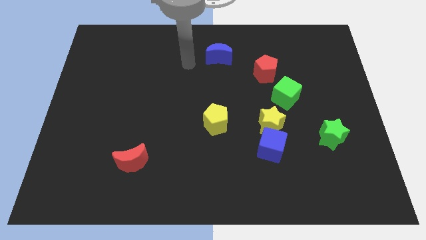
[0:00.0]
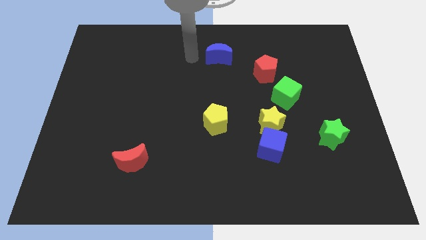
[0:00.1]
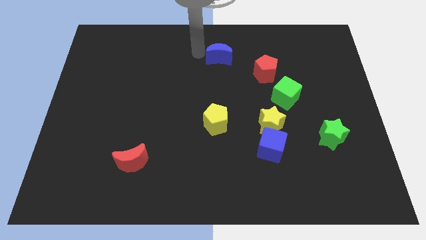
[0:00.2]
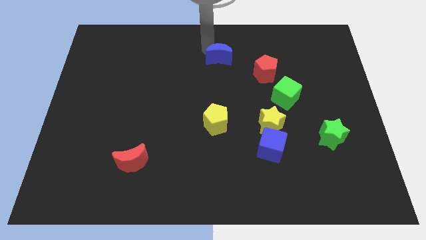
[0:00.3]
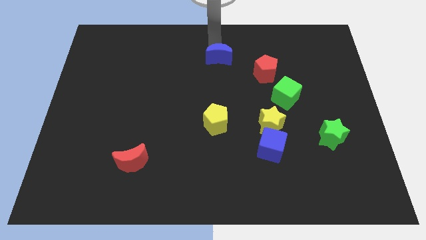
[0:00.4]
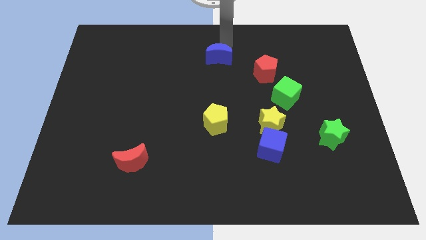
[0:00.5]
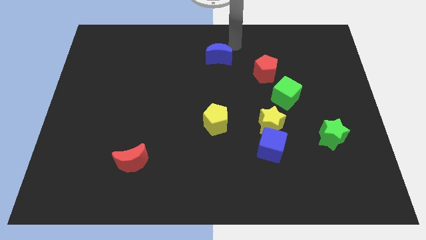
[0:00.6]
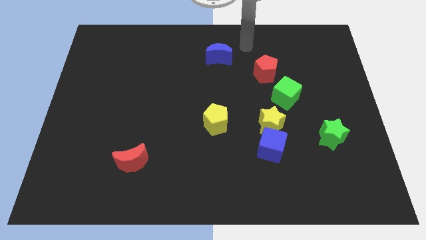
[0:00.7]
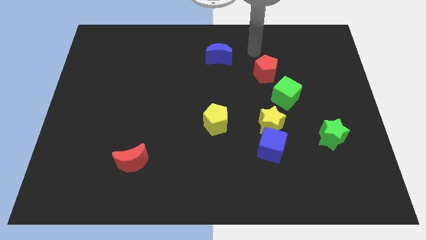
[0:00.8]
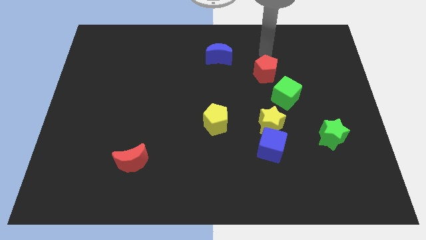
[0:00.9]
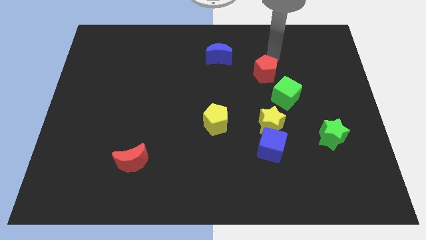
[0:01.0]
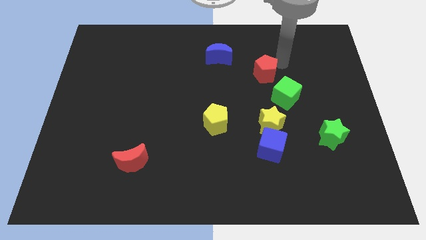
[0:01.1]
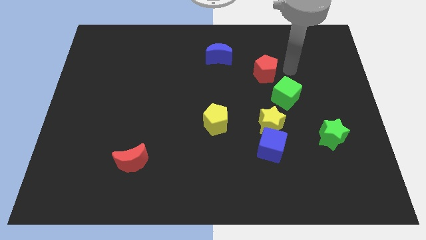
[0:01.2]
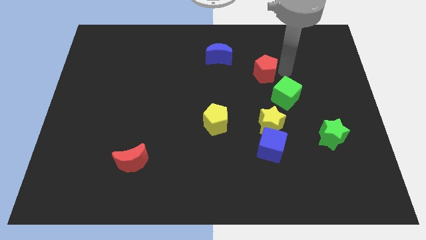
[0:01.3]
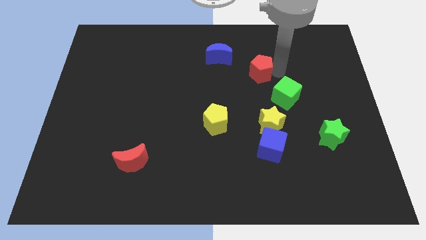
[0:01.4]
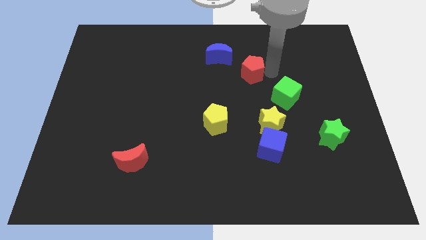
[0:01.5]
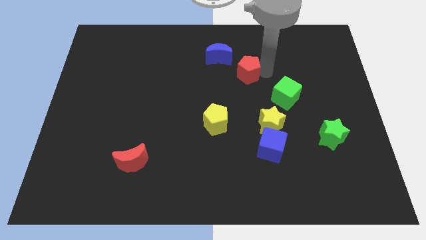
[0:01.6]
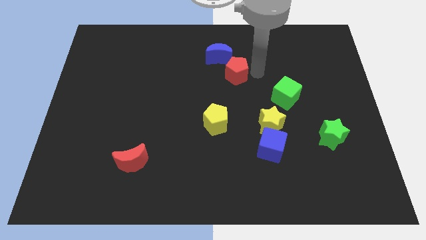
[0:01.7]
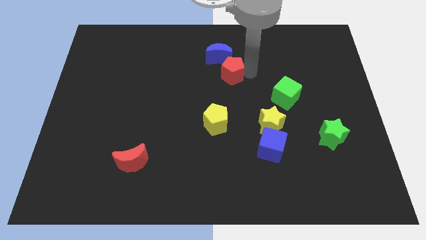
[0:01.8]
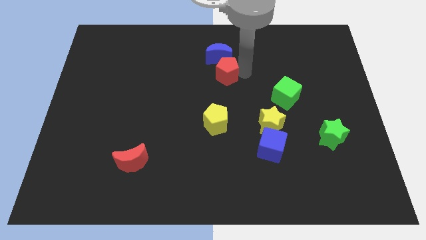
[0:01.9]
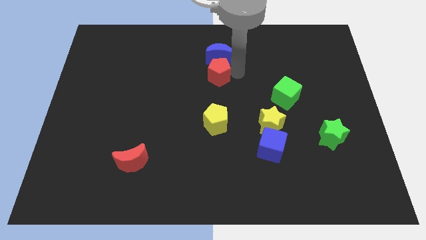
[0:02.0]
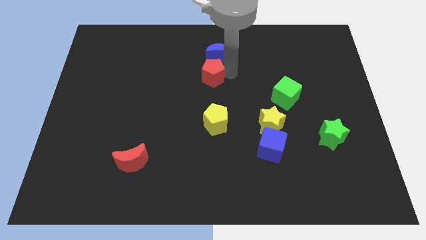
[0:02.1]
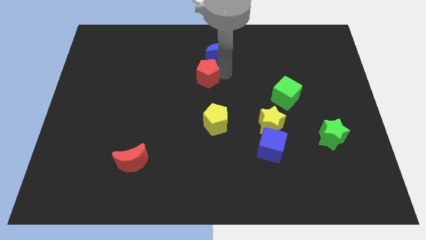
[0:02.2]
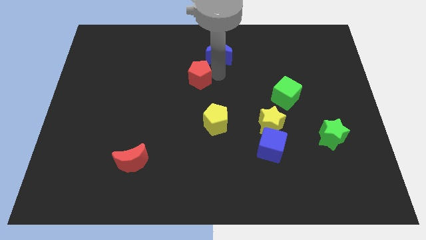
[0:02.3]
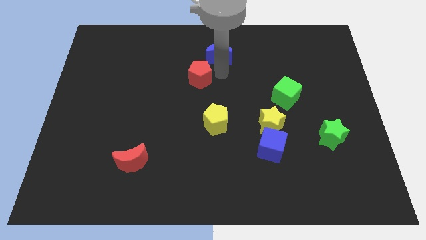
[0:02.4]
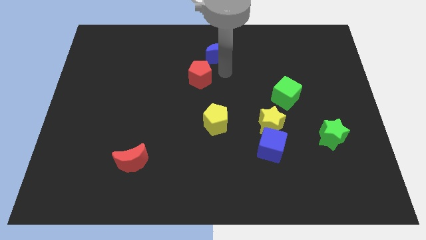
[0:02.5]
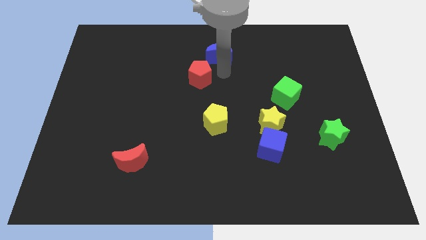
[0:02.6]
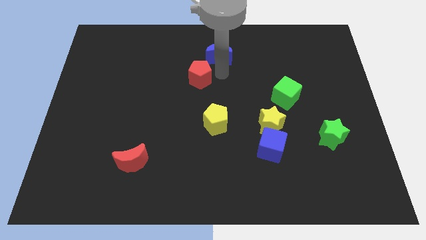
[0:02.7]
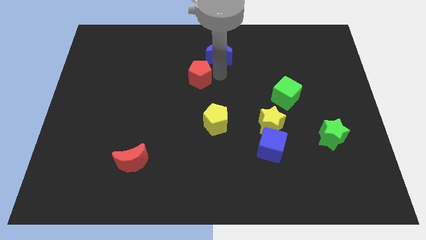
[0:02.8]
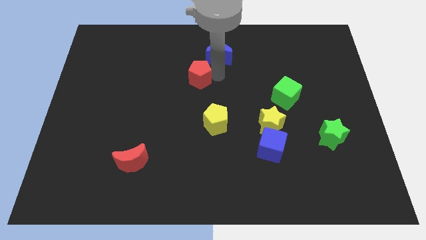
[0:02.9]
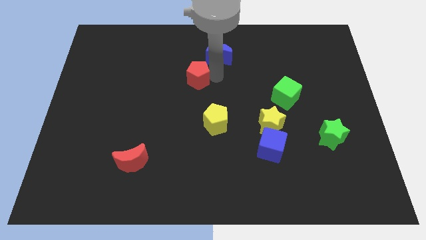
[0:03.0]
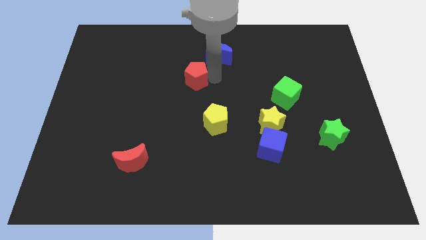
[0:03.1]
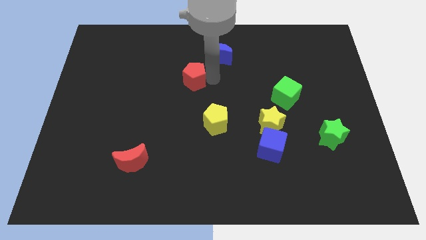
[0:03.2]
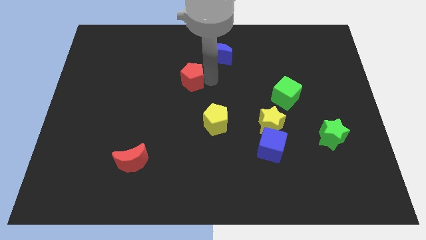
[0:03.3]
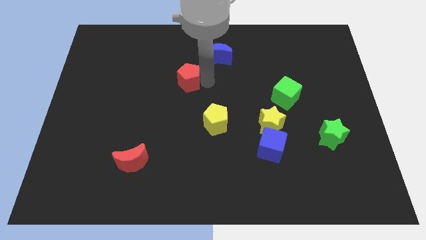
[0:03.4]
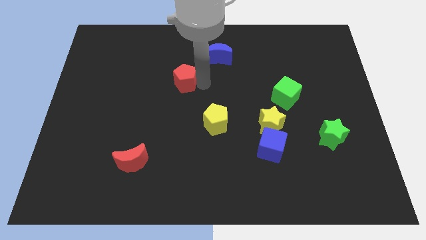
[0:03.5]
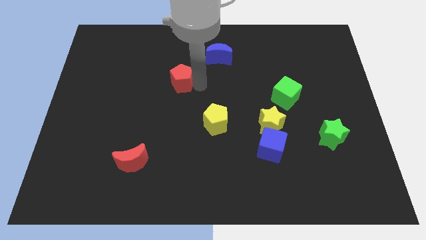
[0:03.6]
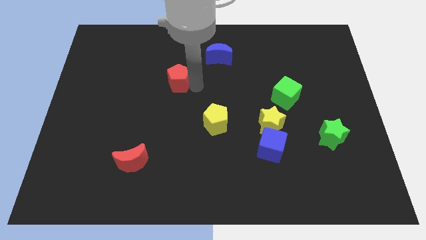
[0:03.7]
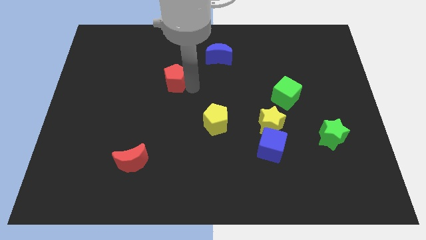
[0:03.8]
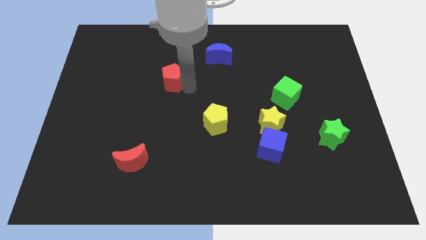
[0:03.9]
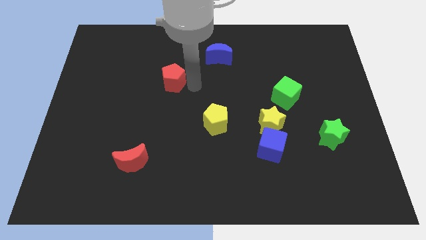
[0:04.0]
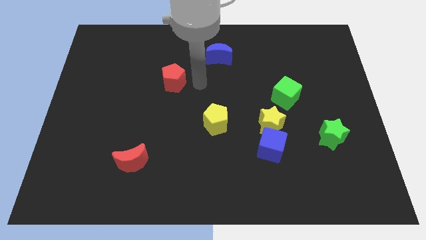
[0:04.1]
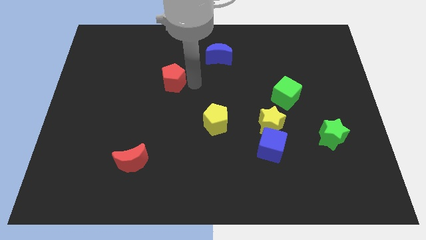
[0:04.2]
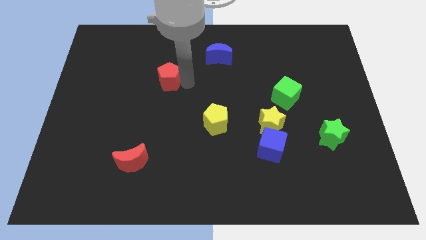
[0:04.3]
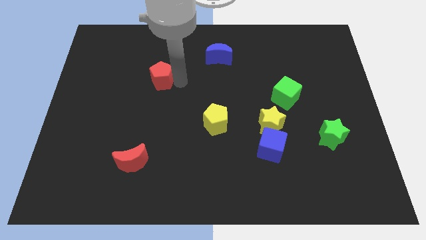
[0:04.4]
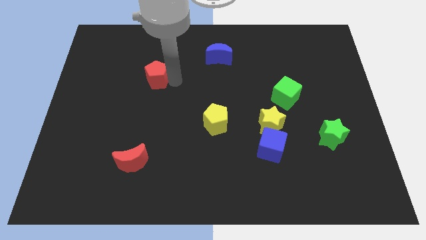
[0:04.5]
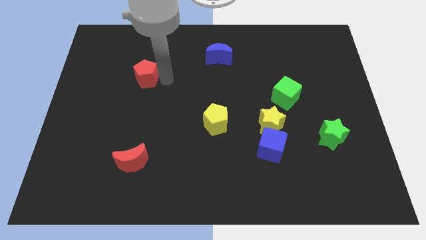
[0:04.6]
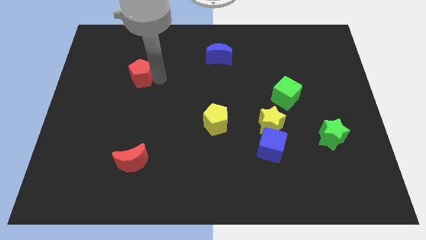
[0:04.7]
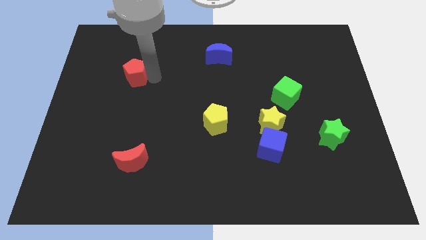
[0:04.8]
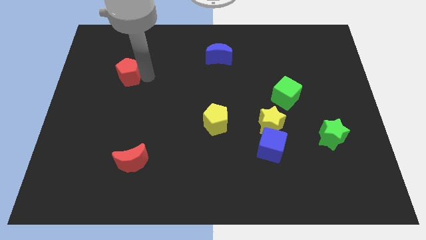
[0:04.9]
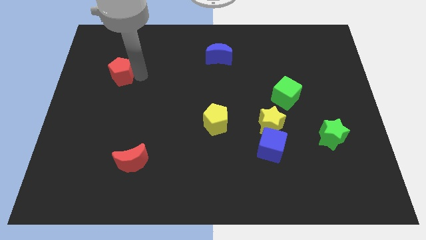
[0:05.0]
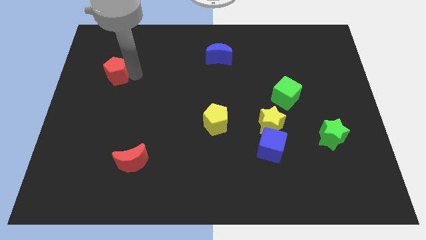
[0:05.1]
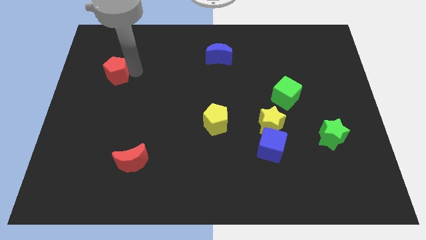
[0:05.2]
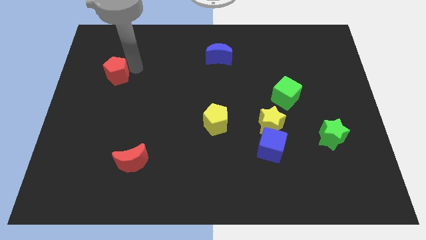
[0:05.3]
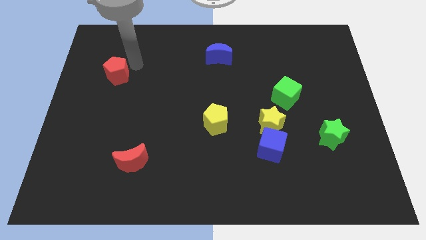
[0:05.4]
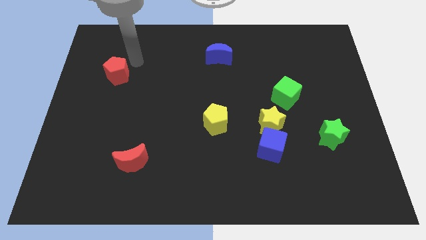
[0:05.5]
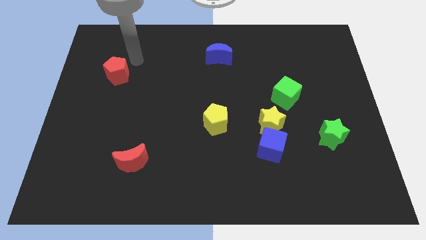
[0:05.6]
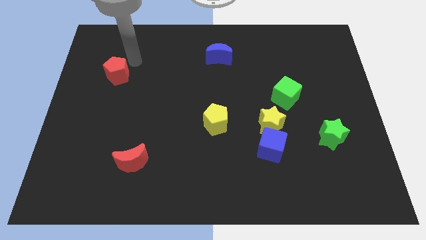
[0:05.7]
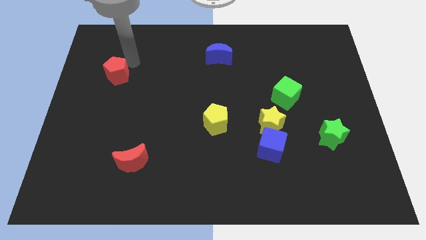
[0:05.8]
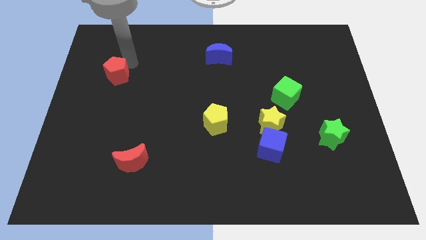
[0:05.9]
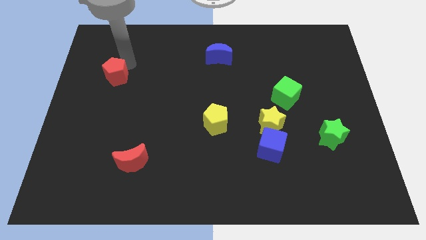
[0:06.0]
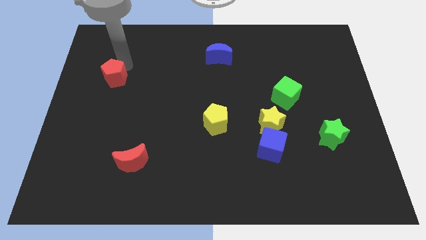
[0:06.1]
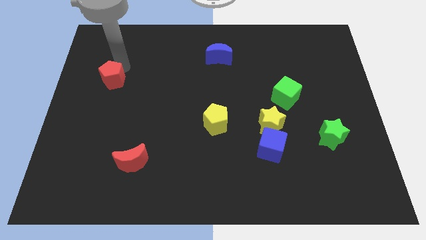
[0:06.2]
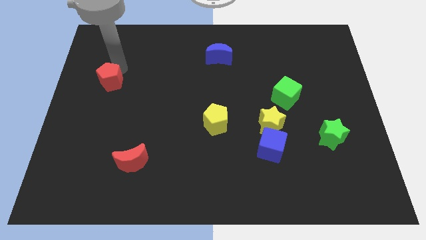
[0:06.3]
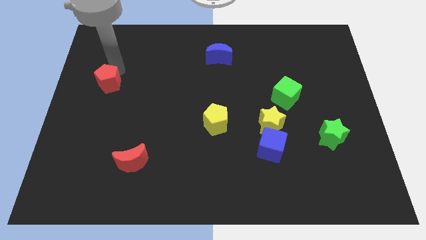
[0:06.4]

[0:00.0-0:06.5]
move the red pentagon to the left side

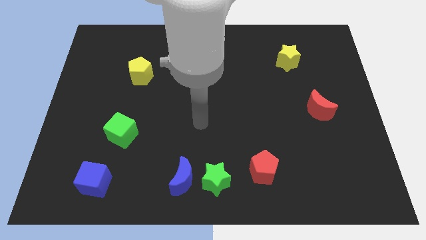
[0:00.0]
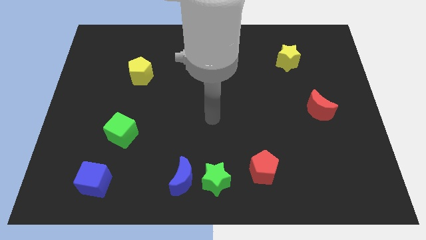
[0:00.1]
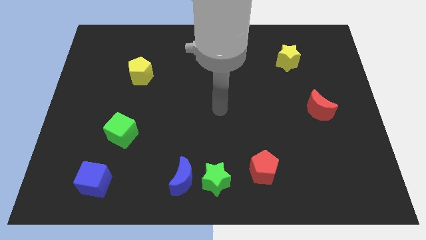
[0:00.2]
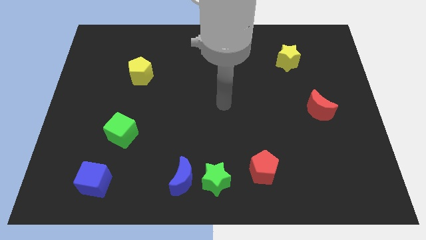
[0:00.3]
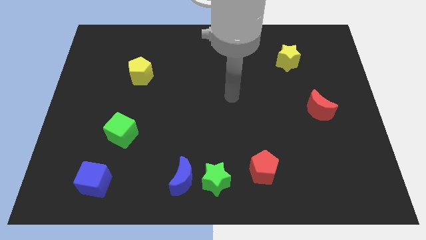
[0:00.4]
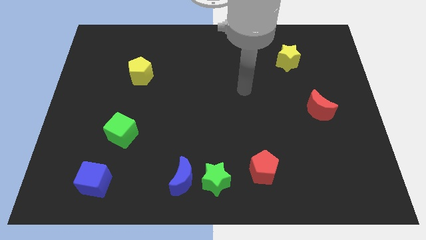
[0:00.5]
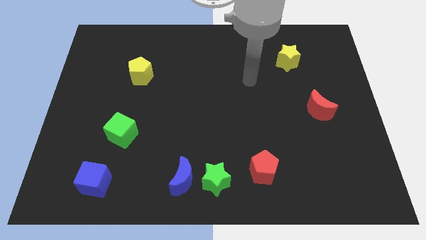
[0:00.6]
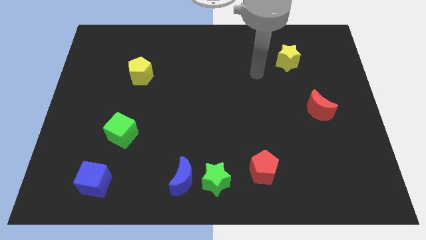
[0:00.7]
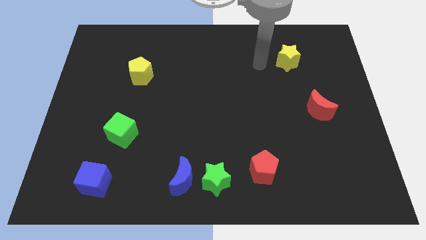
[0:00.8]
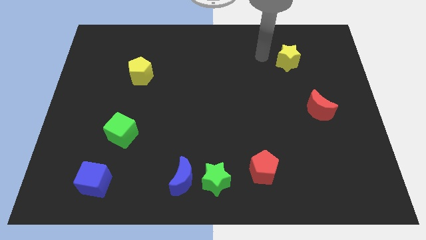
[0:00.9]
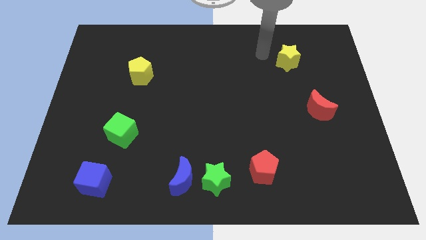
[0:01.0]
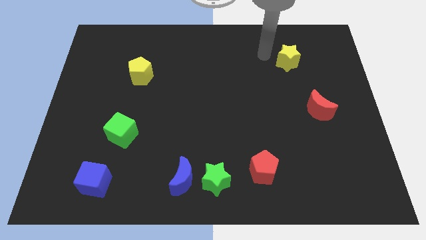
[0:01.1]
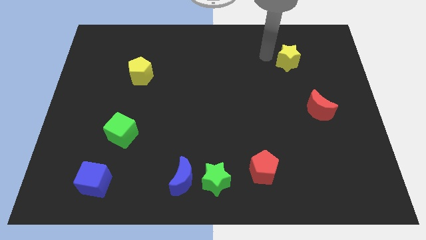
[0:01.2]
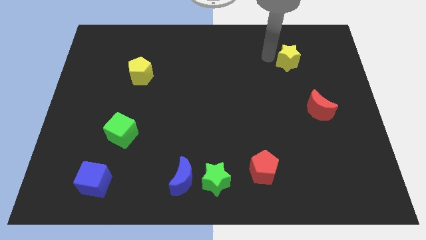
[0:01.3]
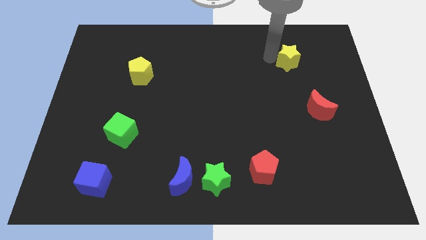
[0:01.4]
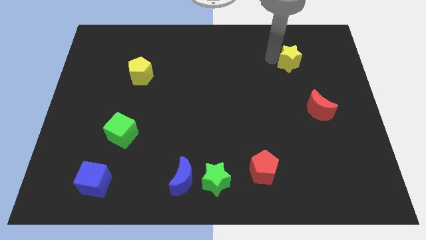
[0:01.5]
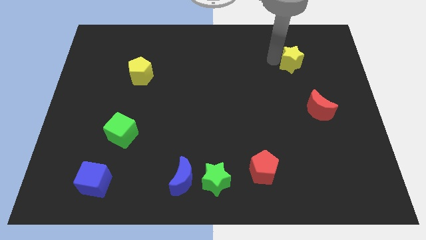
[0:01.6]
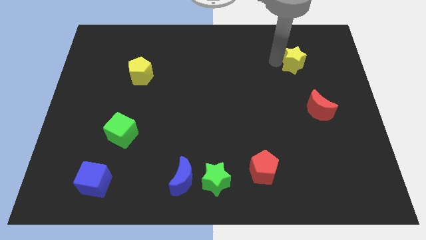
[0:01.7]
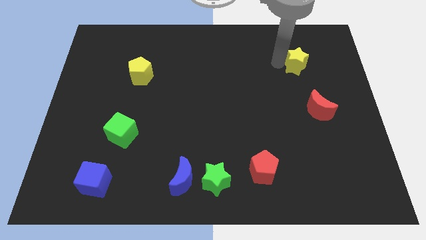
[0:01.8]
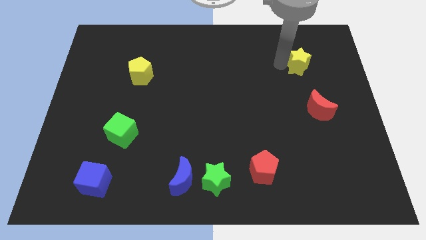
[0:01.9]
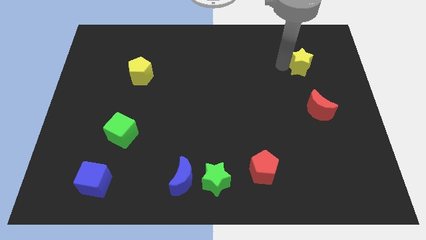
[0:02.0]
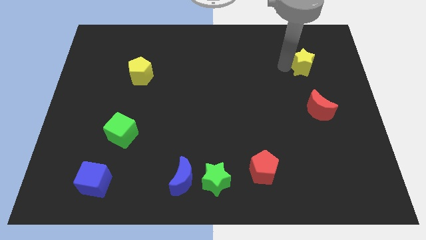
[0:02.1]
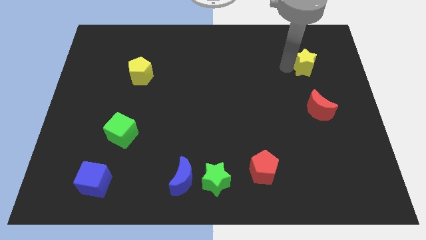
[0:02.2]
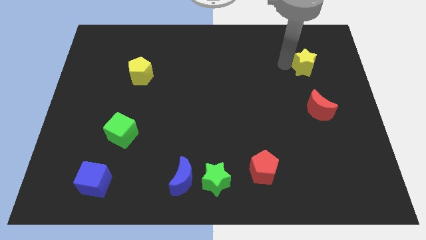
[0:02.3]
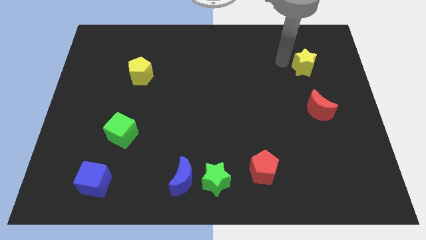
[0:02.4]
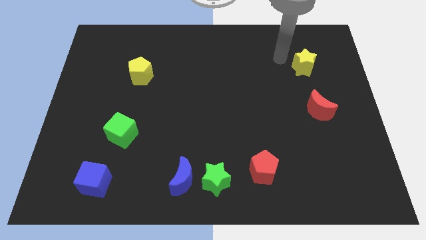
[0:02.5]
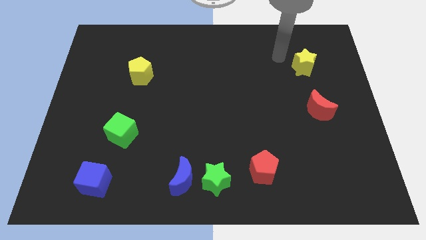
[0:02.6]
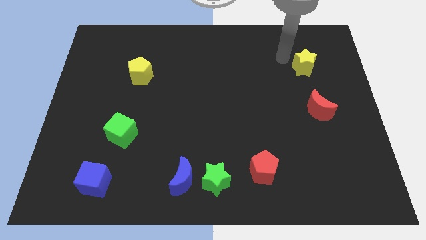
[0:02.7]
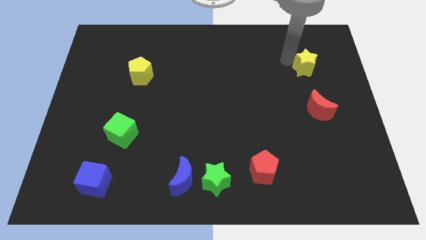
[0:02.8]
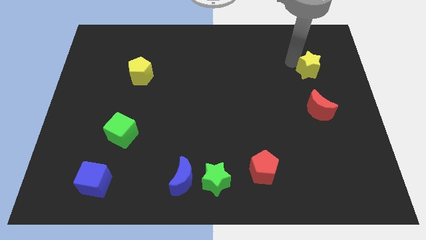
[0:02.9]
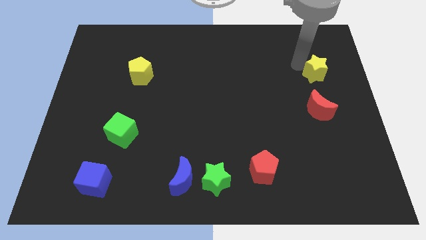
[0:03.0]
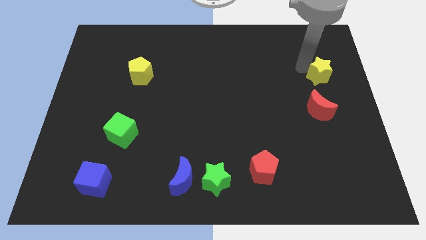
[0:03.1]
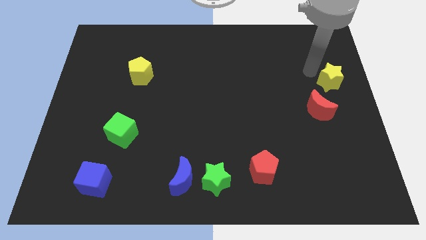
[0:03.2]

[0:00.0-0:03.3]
put the yellow star to the center right
